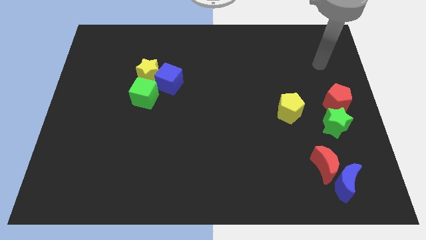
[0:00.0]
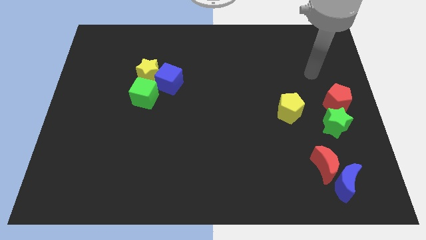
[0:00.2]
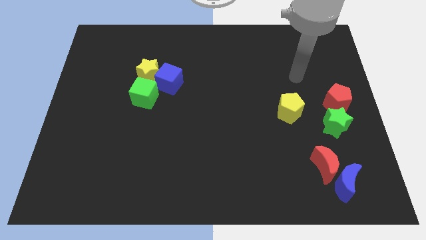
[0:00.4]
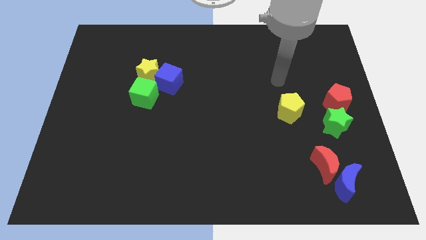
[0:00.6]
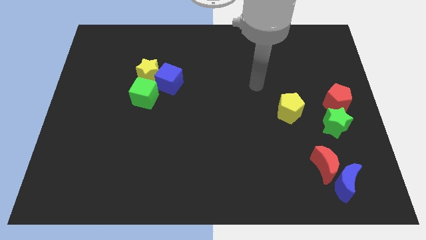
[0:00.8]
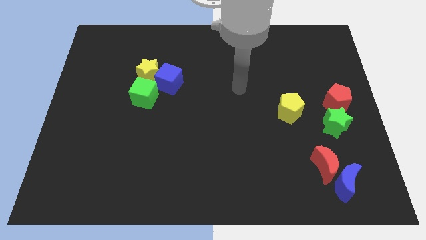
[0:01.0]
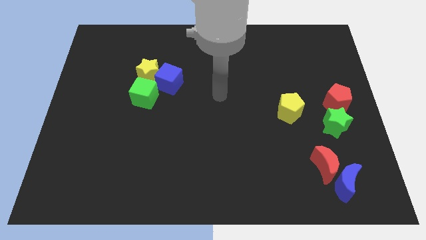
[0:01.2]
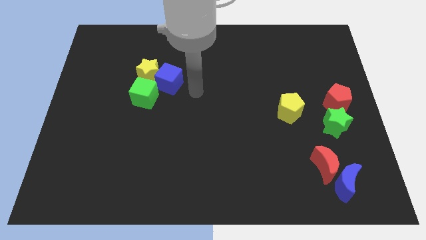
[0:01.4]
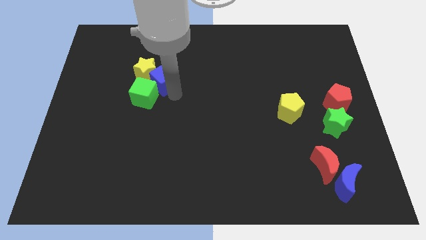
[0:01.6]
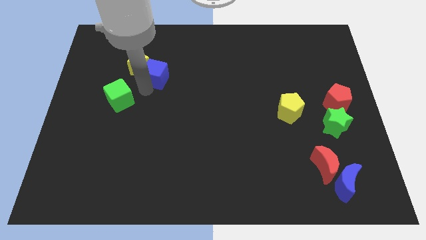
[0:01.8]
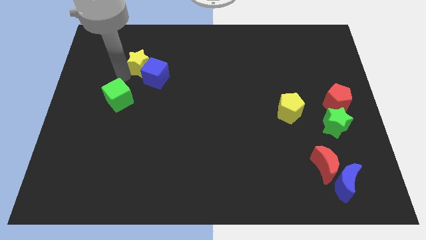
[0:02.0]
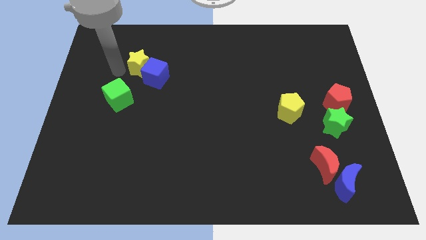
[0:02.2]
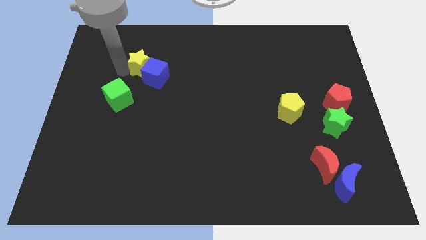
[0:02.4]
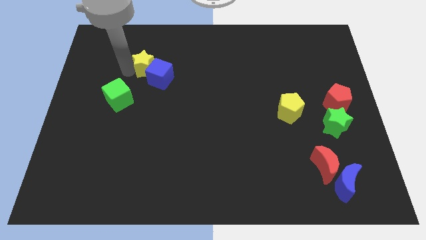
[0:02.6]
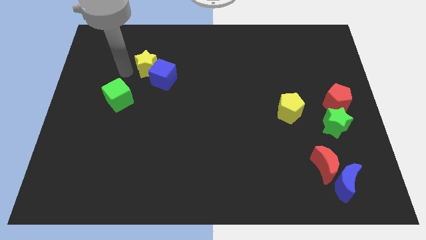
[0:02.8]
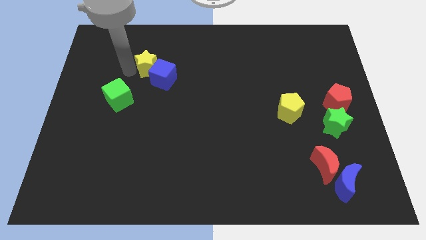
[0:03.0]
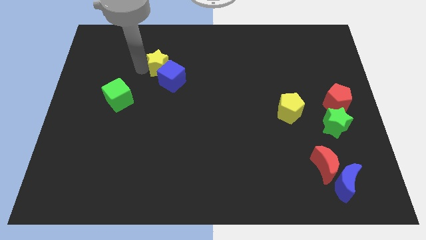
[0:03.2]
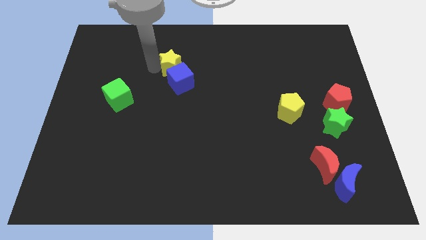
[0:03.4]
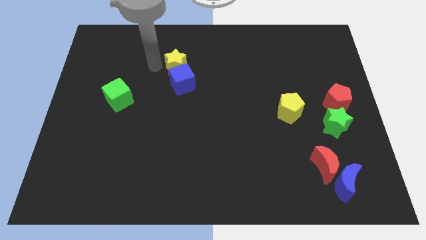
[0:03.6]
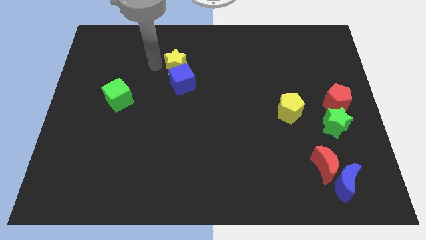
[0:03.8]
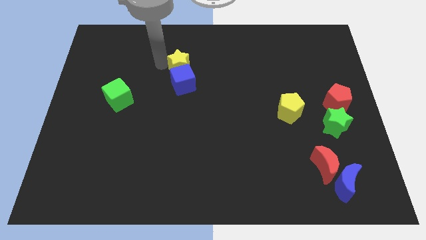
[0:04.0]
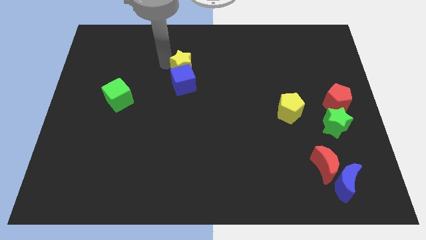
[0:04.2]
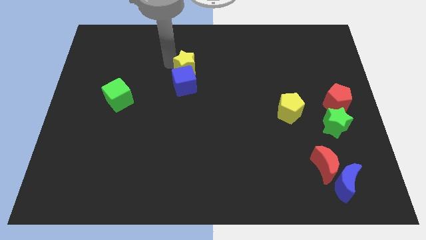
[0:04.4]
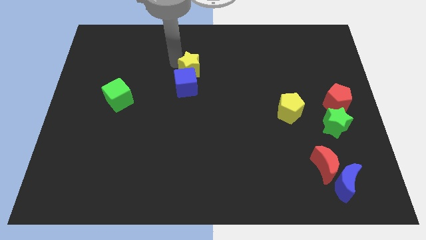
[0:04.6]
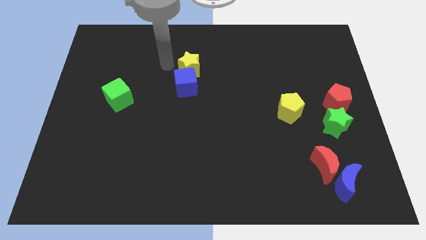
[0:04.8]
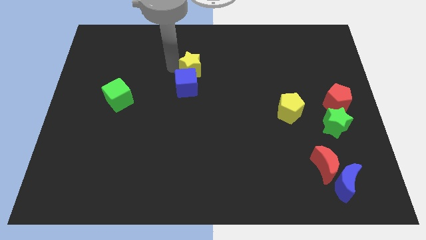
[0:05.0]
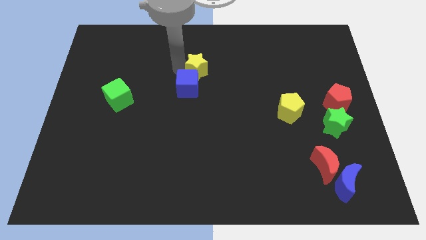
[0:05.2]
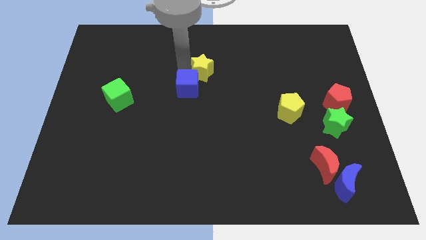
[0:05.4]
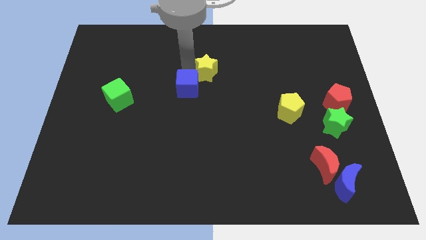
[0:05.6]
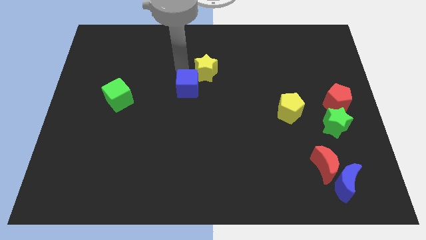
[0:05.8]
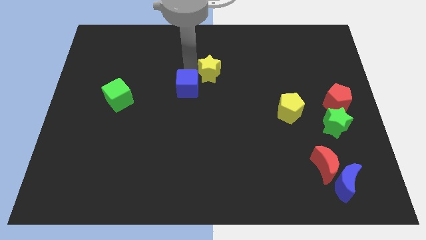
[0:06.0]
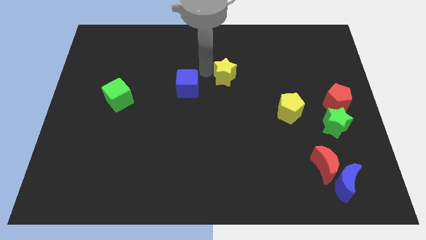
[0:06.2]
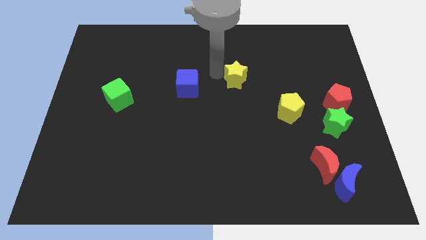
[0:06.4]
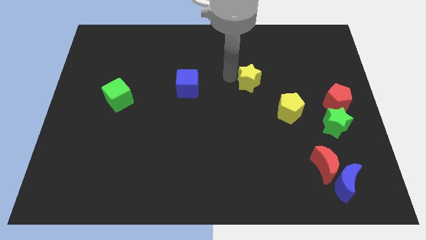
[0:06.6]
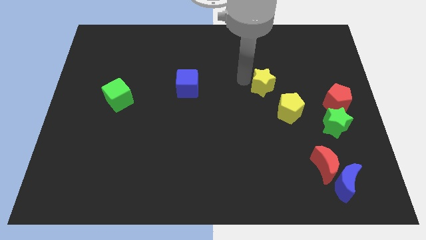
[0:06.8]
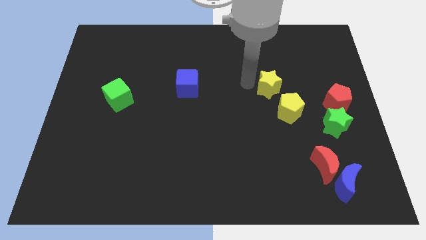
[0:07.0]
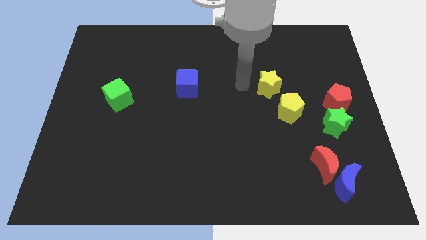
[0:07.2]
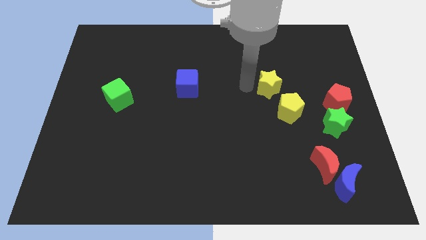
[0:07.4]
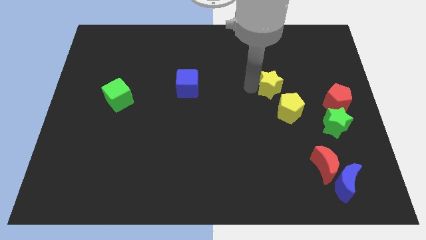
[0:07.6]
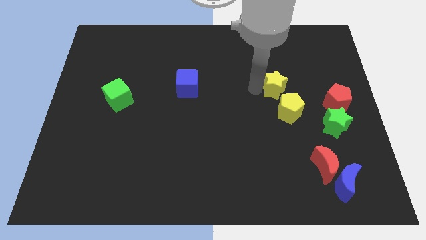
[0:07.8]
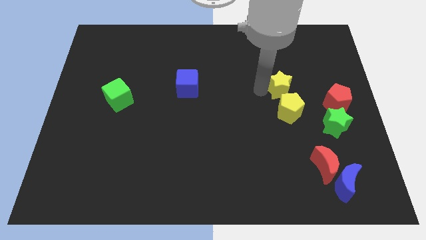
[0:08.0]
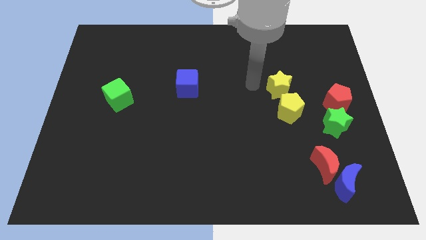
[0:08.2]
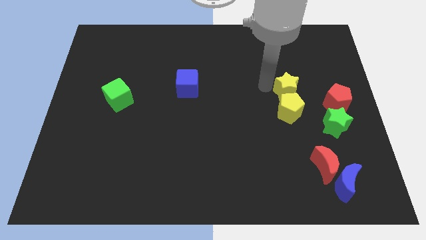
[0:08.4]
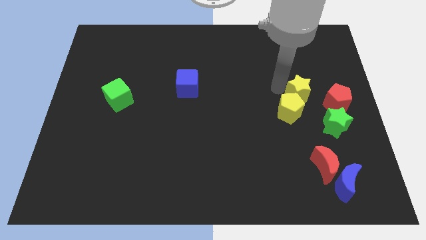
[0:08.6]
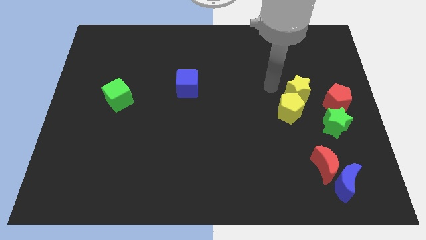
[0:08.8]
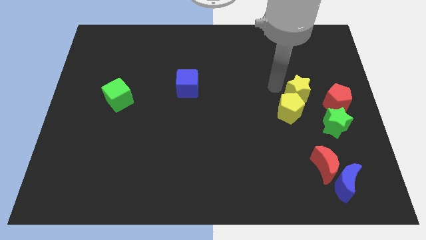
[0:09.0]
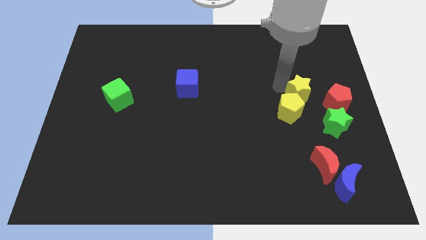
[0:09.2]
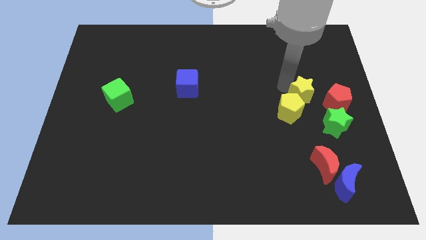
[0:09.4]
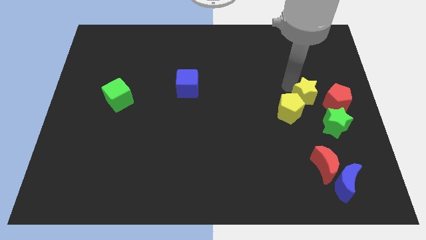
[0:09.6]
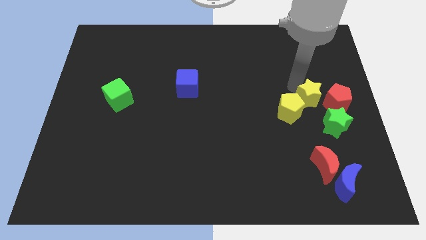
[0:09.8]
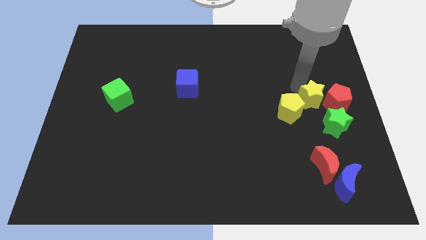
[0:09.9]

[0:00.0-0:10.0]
put the yellow star towards the red pentagon

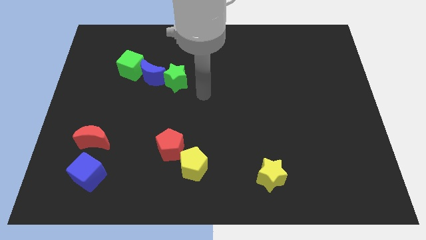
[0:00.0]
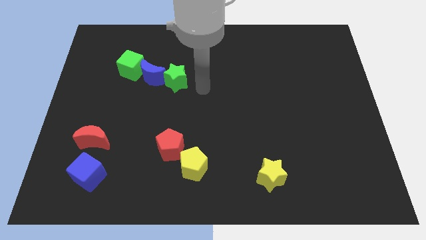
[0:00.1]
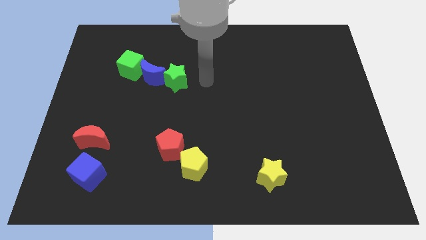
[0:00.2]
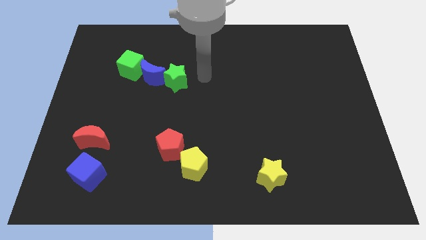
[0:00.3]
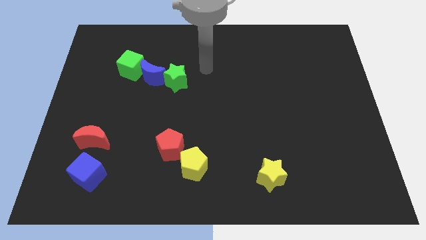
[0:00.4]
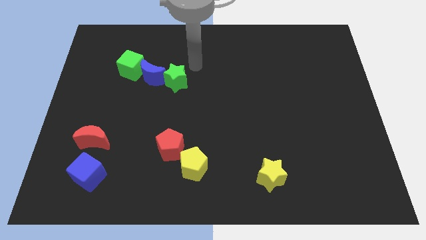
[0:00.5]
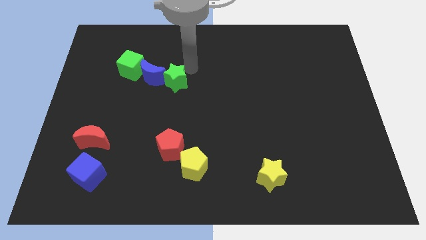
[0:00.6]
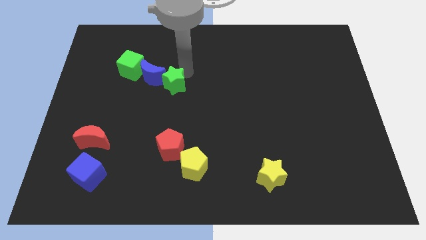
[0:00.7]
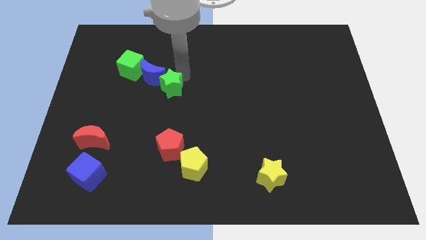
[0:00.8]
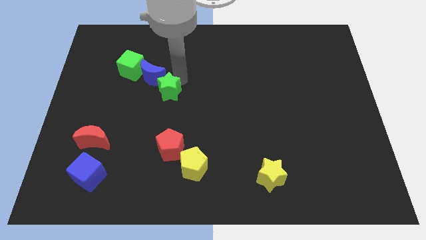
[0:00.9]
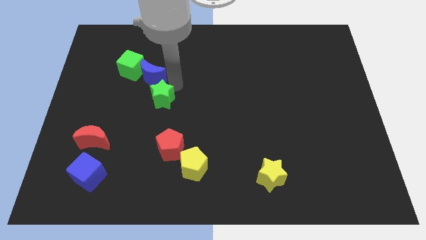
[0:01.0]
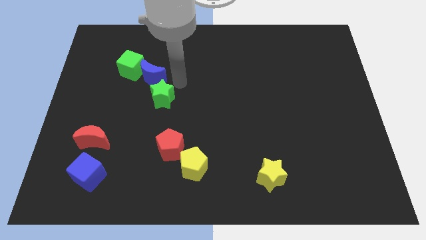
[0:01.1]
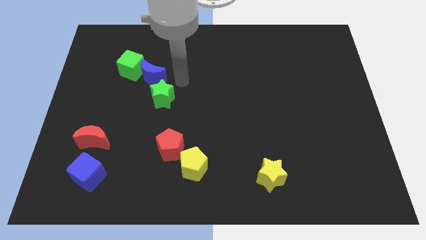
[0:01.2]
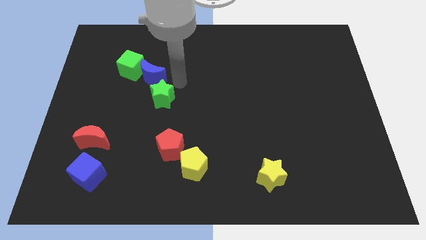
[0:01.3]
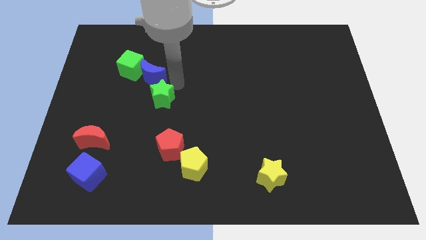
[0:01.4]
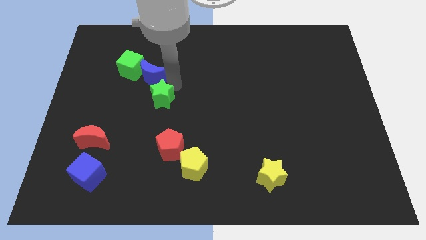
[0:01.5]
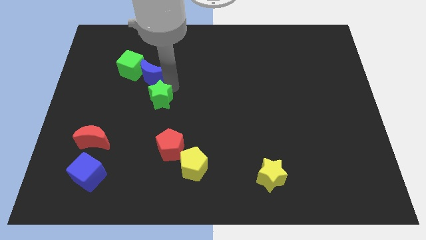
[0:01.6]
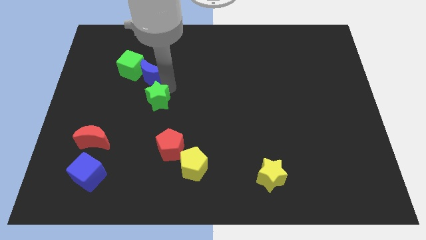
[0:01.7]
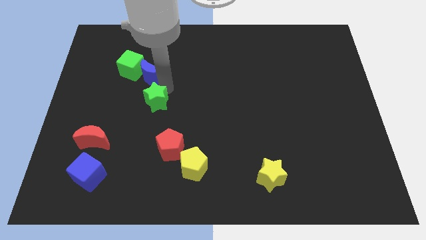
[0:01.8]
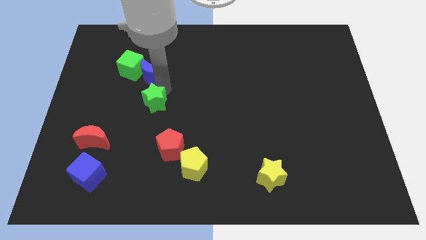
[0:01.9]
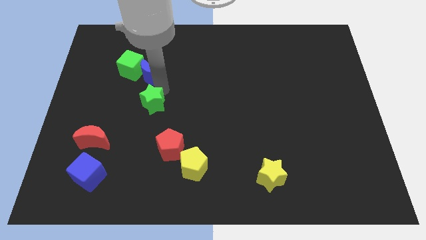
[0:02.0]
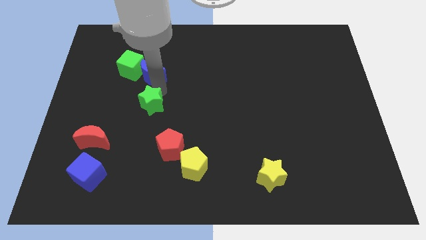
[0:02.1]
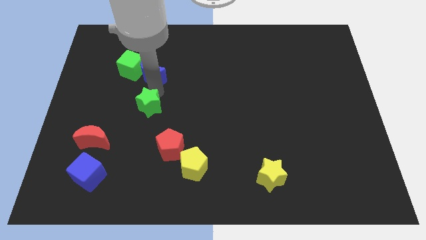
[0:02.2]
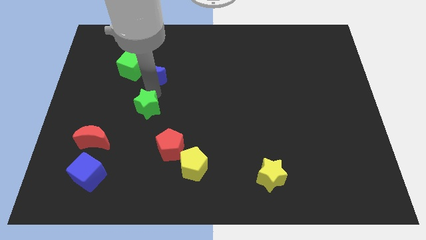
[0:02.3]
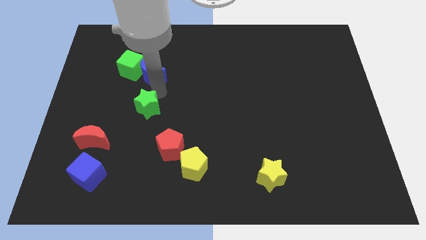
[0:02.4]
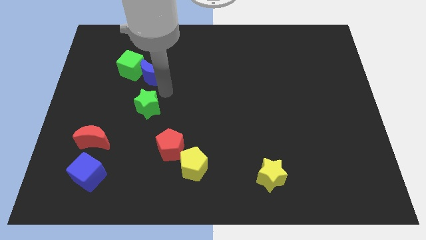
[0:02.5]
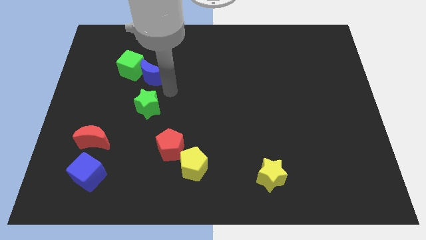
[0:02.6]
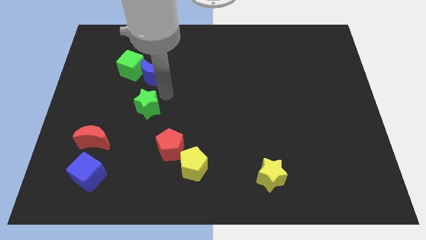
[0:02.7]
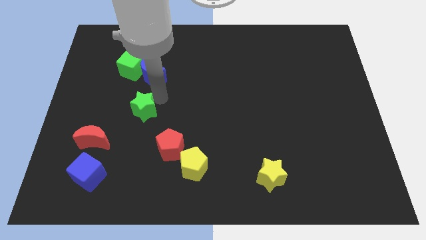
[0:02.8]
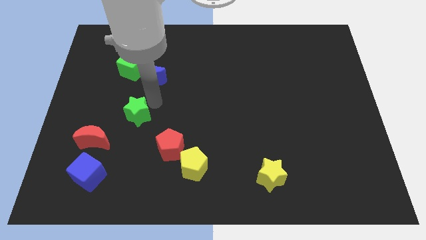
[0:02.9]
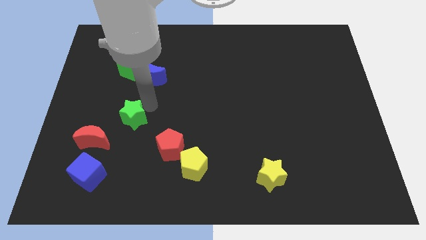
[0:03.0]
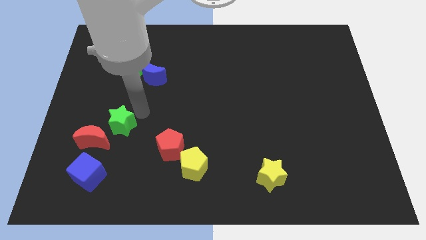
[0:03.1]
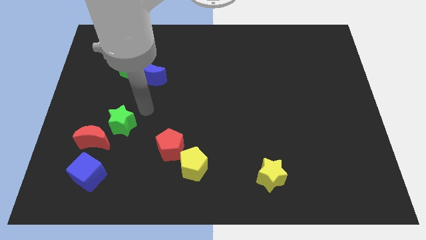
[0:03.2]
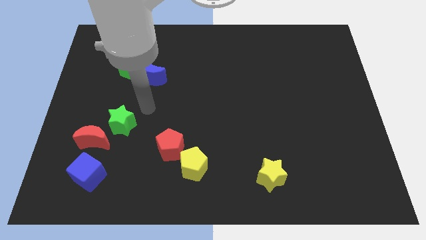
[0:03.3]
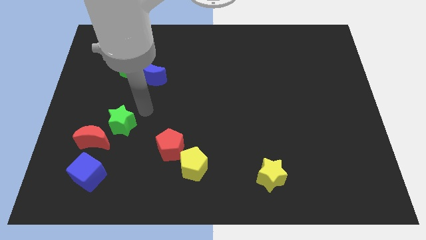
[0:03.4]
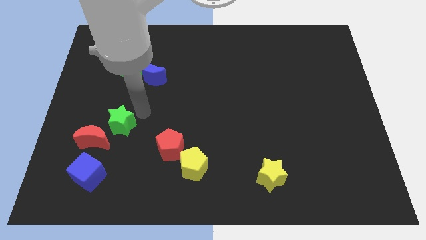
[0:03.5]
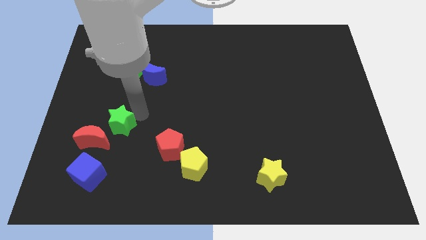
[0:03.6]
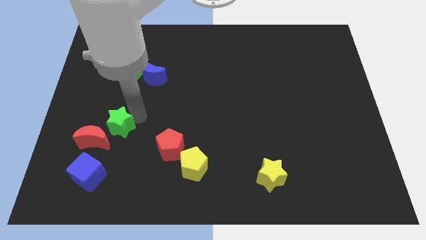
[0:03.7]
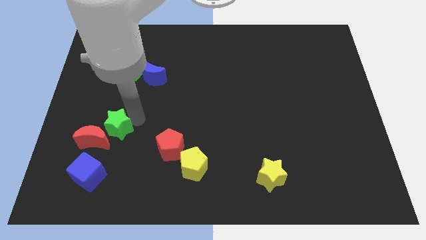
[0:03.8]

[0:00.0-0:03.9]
put the green star next to the red moon
